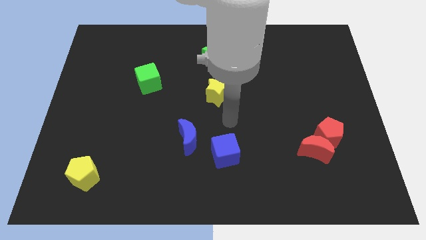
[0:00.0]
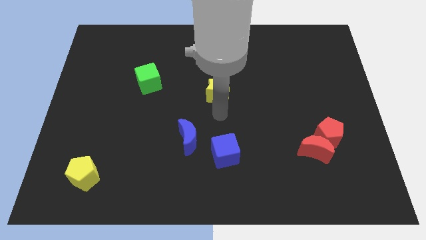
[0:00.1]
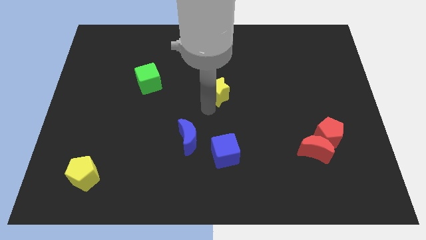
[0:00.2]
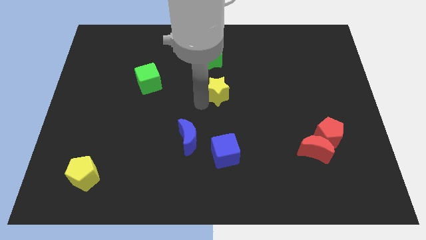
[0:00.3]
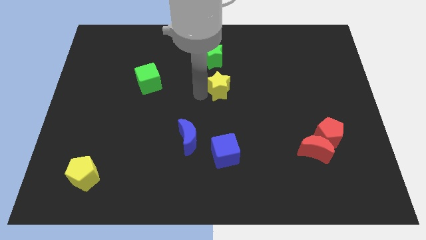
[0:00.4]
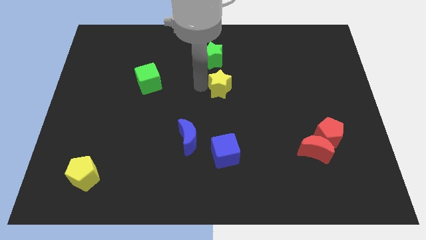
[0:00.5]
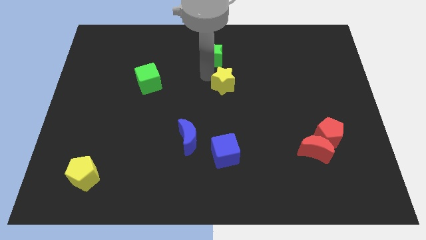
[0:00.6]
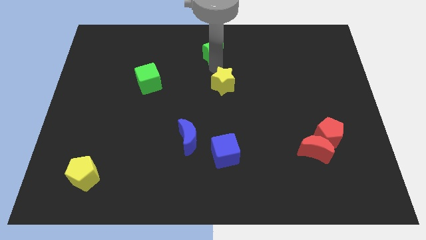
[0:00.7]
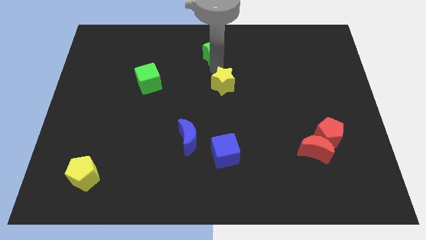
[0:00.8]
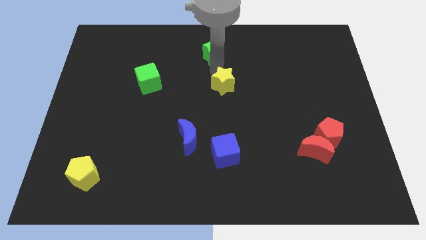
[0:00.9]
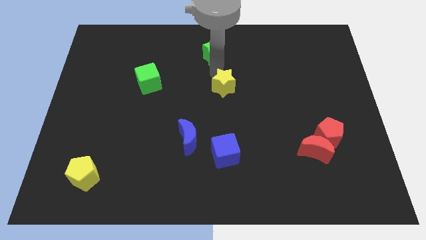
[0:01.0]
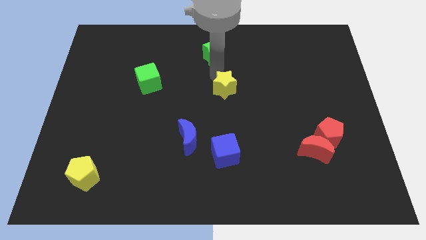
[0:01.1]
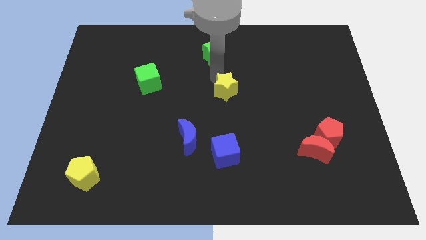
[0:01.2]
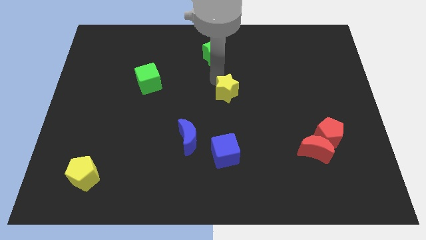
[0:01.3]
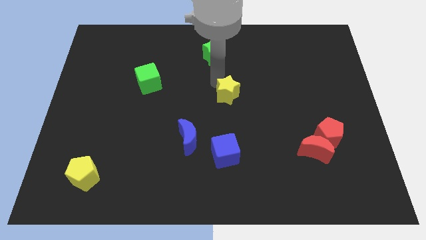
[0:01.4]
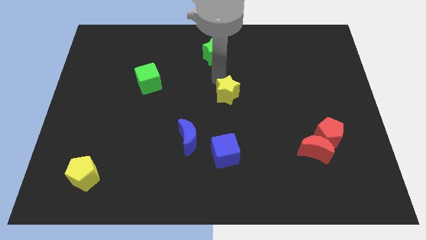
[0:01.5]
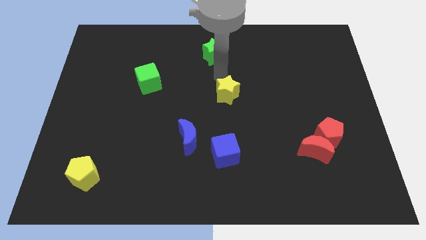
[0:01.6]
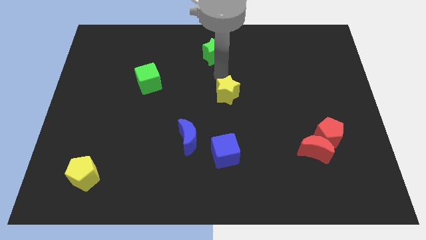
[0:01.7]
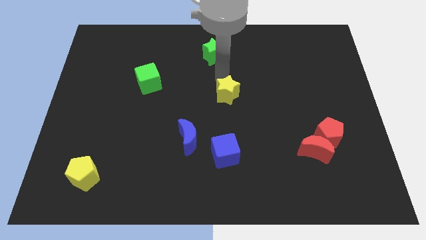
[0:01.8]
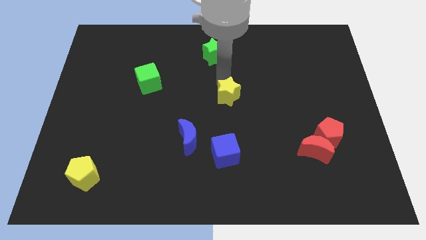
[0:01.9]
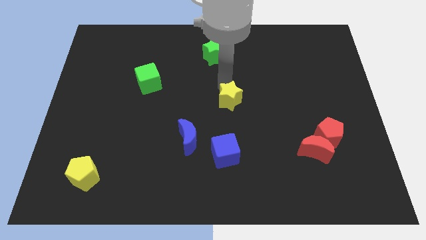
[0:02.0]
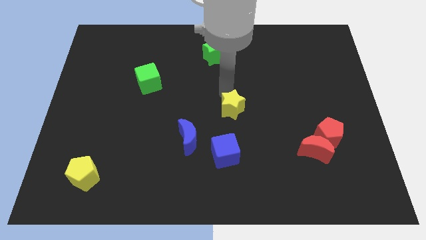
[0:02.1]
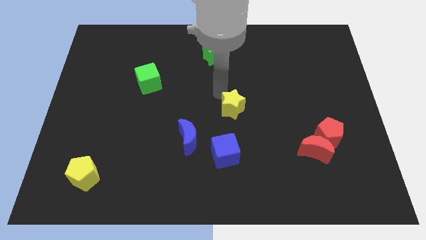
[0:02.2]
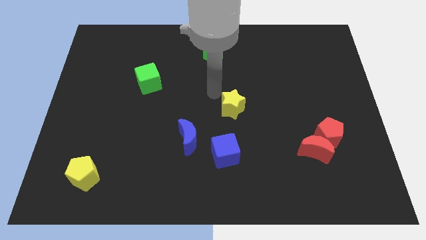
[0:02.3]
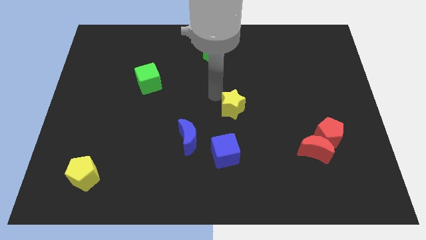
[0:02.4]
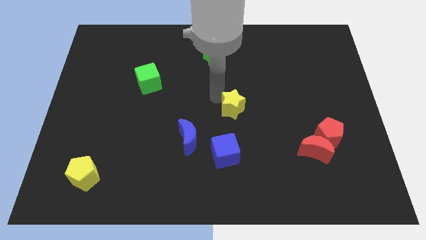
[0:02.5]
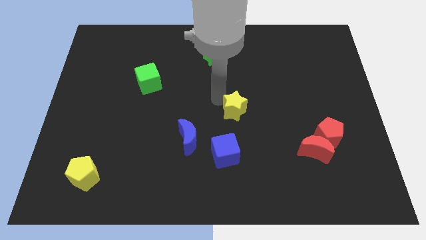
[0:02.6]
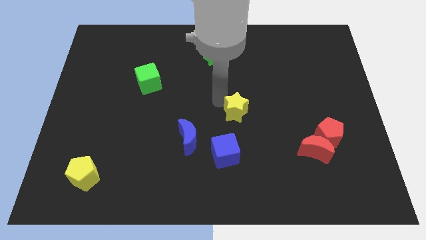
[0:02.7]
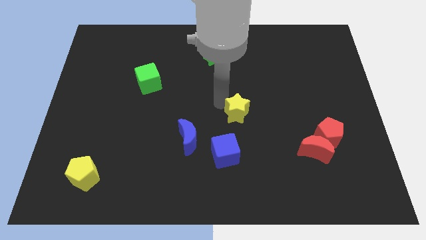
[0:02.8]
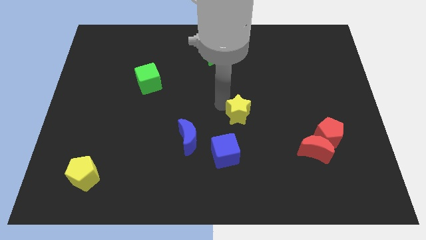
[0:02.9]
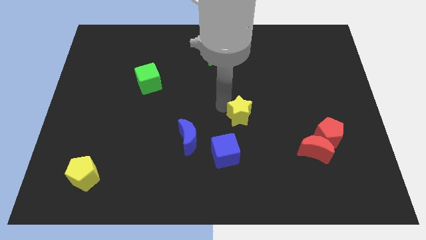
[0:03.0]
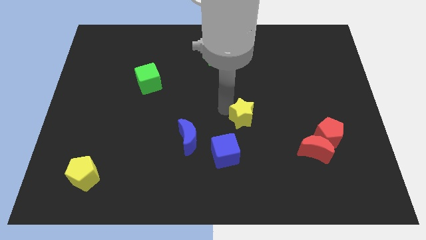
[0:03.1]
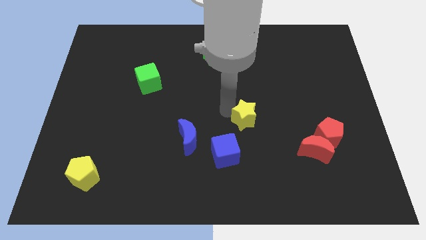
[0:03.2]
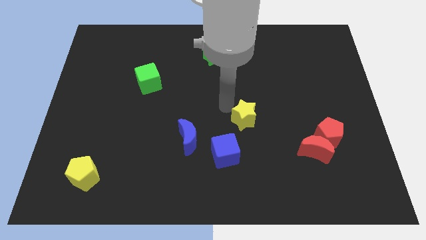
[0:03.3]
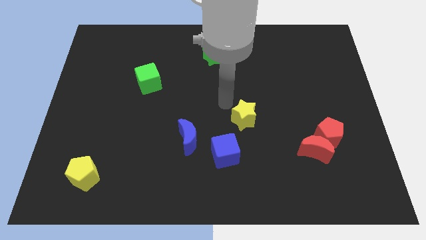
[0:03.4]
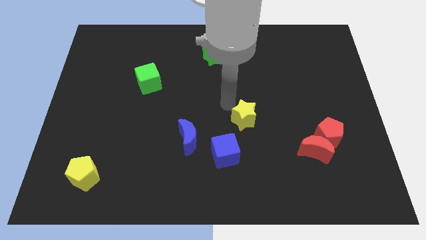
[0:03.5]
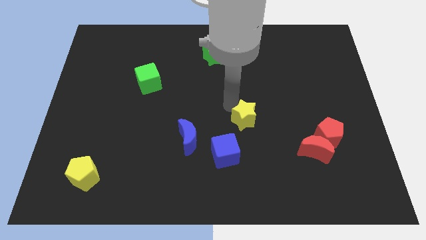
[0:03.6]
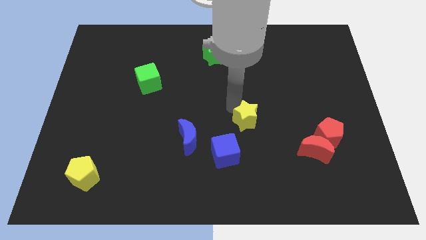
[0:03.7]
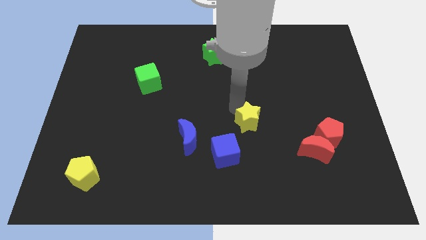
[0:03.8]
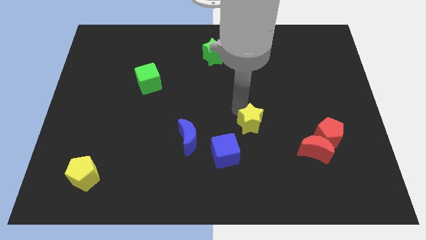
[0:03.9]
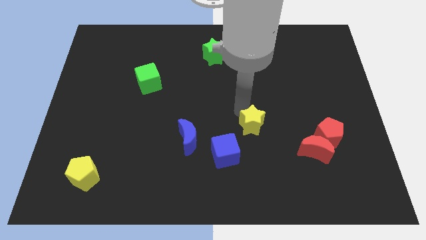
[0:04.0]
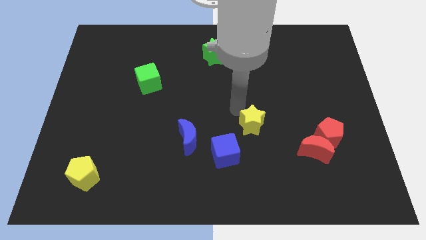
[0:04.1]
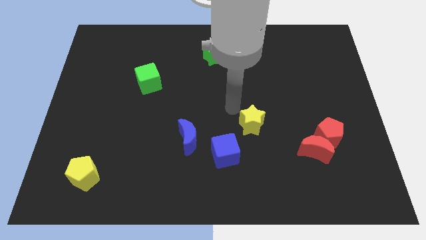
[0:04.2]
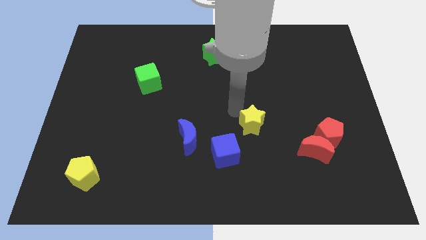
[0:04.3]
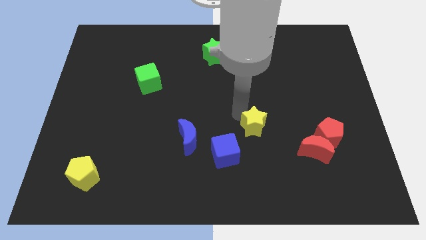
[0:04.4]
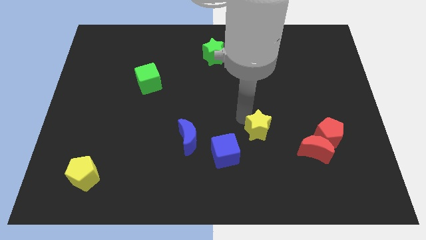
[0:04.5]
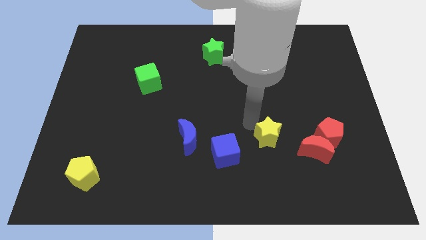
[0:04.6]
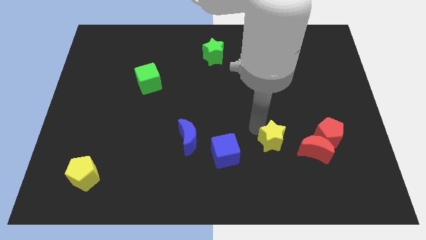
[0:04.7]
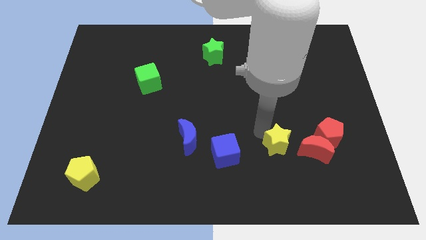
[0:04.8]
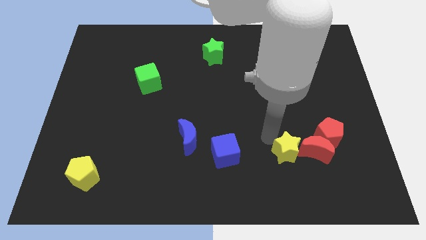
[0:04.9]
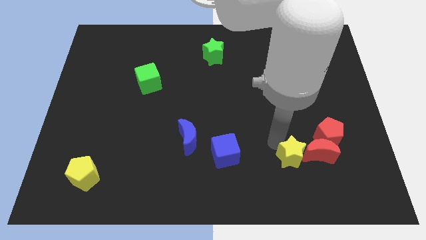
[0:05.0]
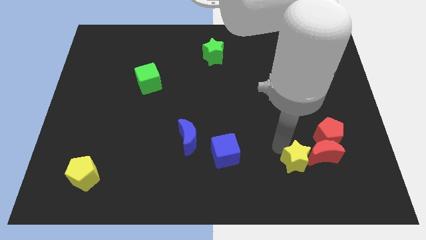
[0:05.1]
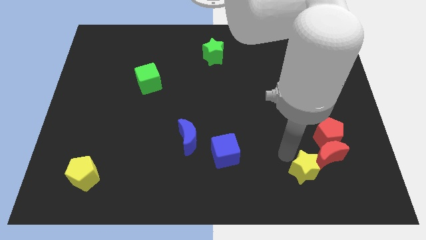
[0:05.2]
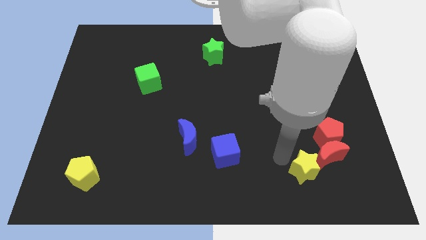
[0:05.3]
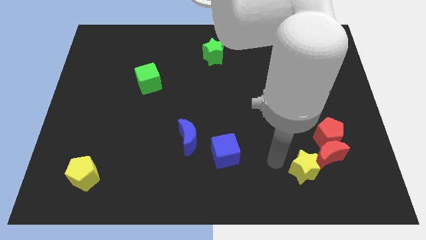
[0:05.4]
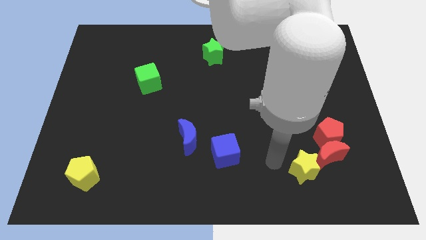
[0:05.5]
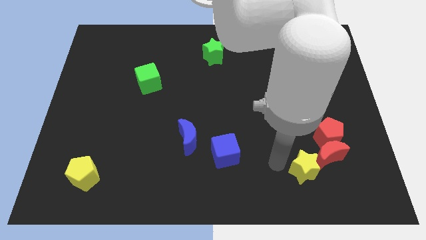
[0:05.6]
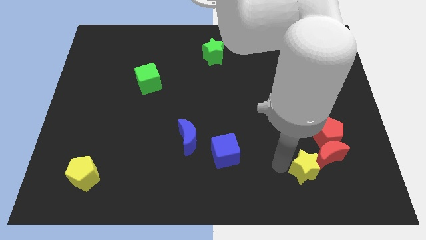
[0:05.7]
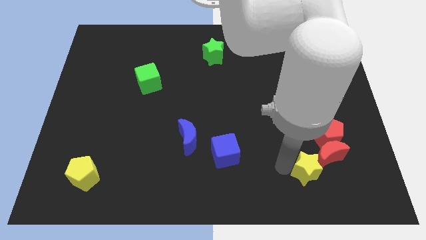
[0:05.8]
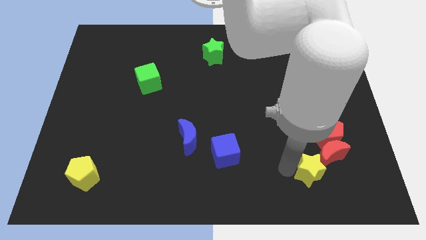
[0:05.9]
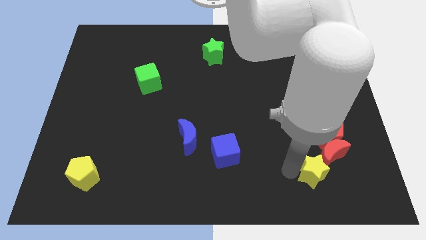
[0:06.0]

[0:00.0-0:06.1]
slide the yellow star to the bottom of the red pentagon

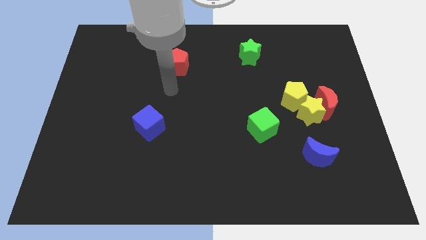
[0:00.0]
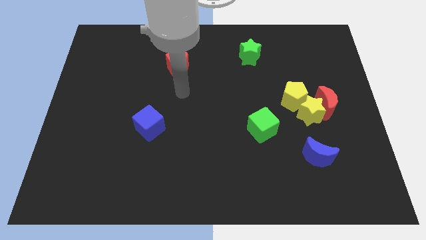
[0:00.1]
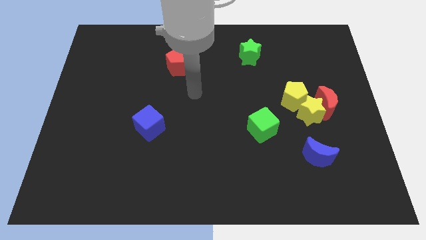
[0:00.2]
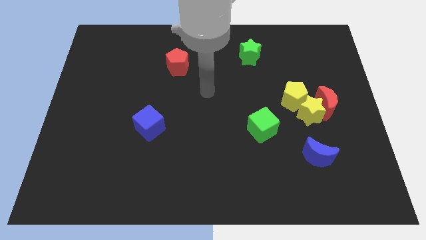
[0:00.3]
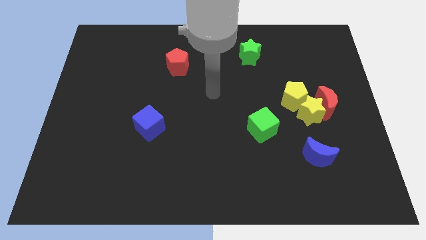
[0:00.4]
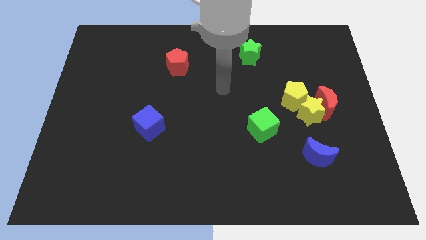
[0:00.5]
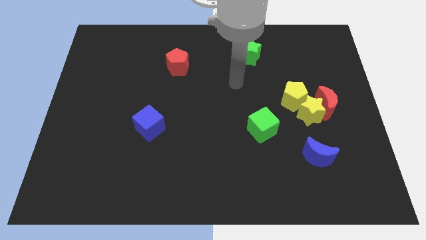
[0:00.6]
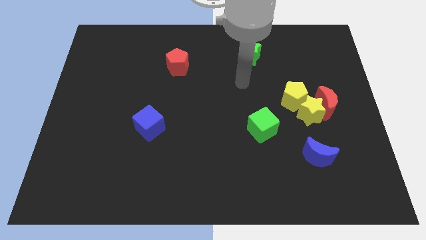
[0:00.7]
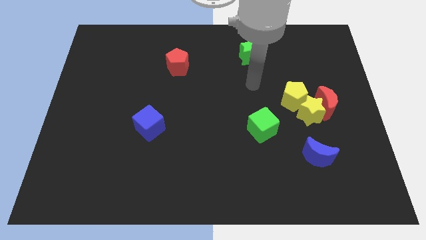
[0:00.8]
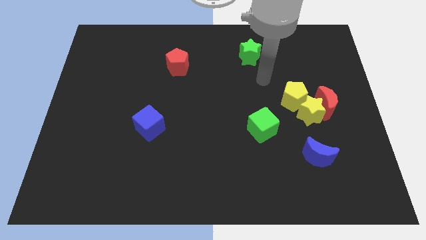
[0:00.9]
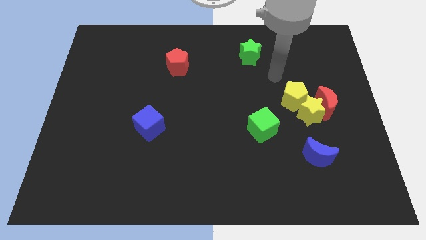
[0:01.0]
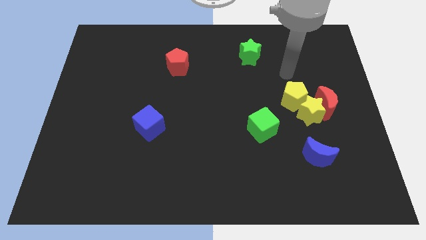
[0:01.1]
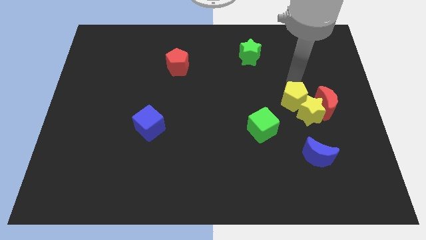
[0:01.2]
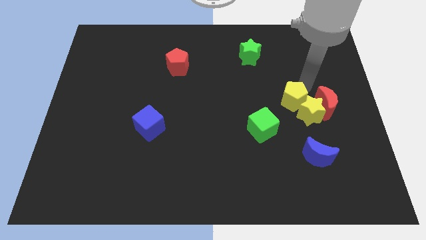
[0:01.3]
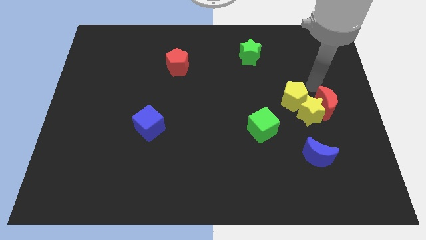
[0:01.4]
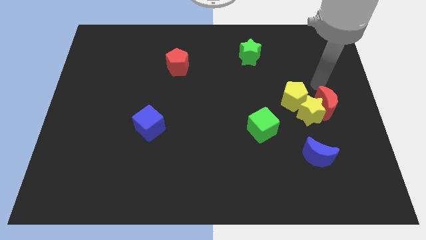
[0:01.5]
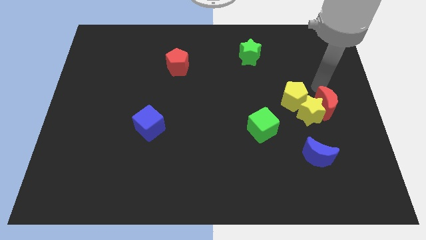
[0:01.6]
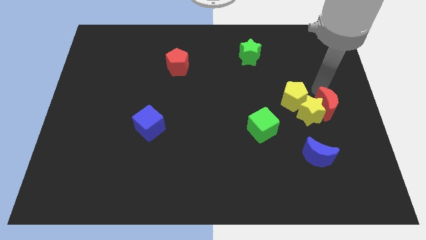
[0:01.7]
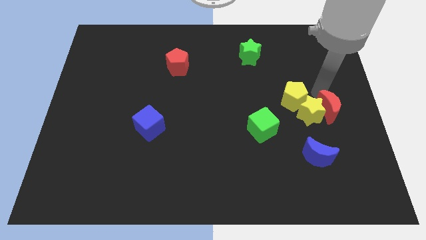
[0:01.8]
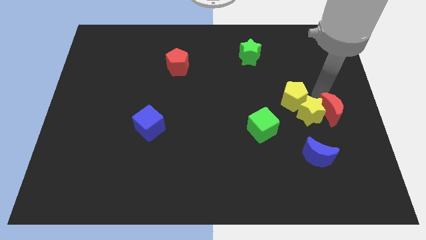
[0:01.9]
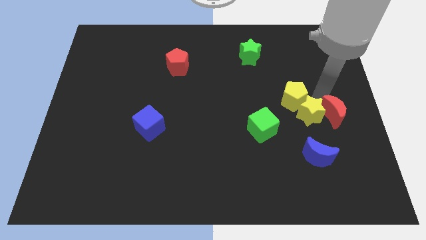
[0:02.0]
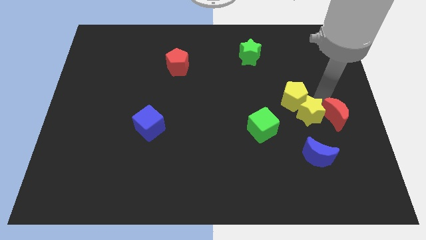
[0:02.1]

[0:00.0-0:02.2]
move the red moon to the top right side of the blue moon
